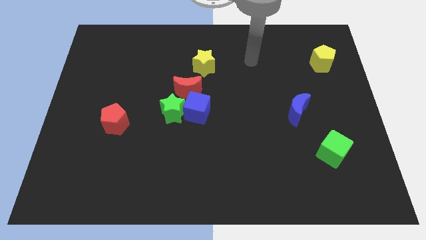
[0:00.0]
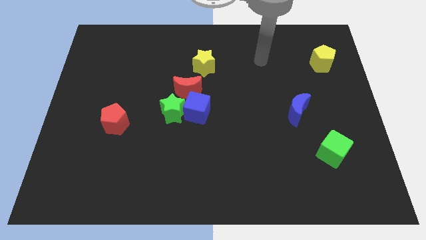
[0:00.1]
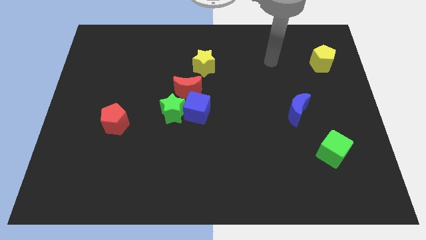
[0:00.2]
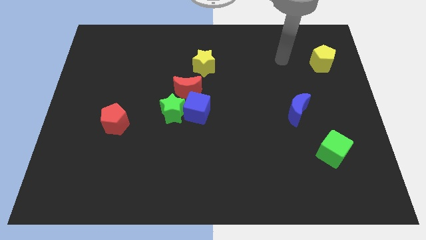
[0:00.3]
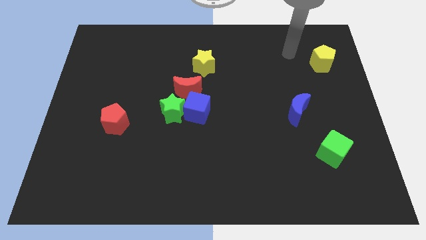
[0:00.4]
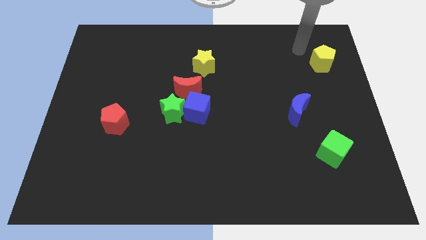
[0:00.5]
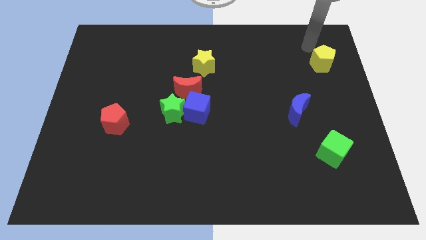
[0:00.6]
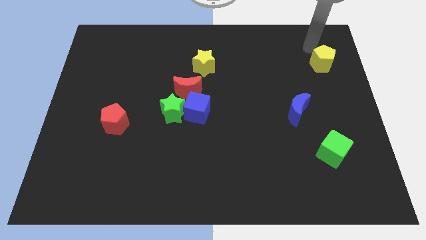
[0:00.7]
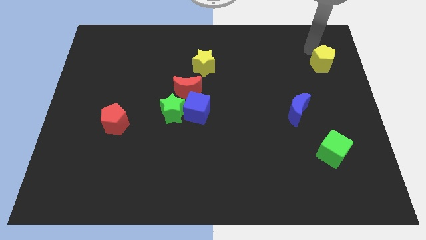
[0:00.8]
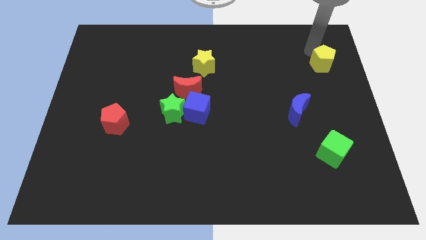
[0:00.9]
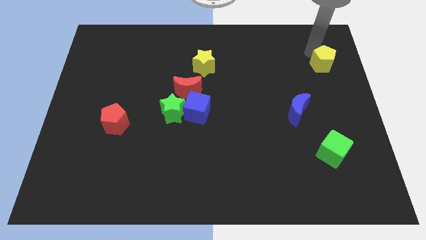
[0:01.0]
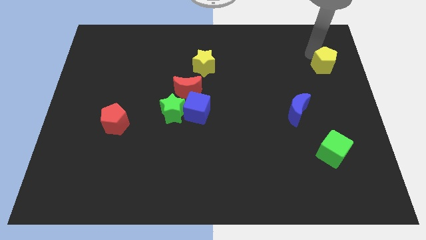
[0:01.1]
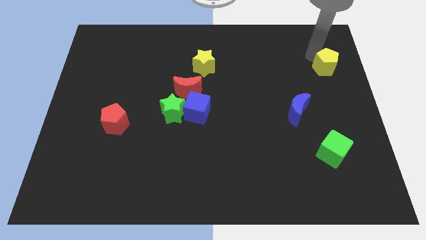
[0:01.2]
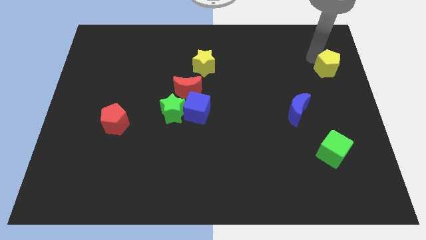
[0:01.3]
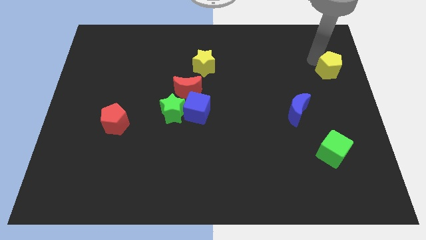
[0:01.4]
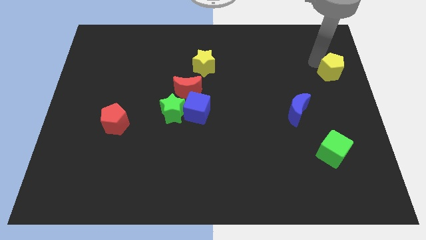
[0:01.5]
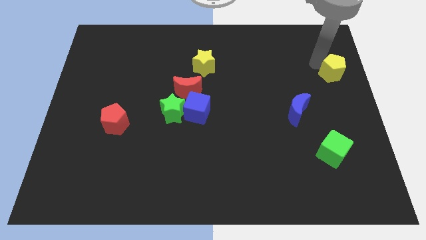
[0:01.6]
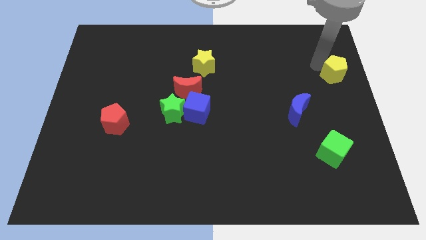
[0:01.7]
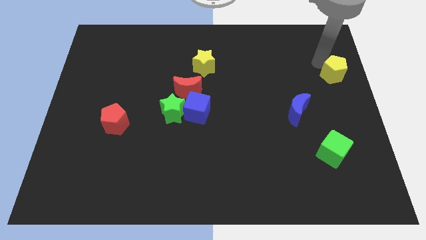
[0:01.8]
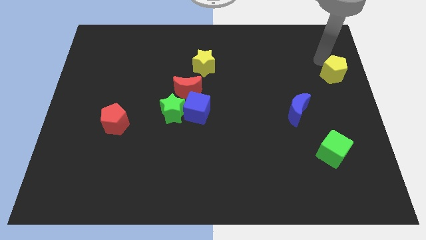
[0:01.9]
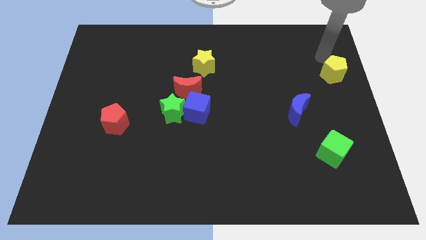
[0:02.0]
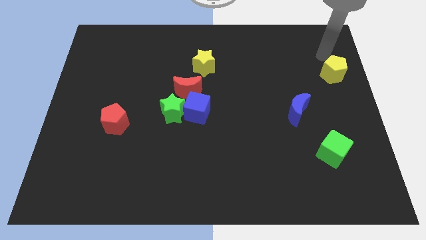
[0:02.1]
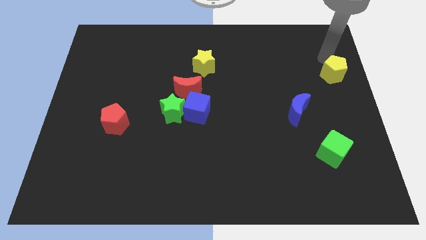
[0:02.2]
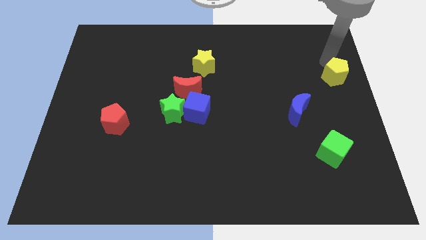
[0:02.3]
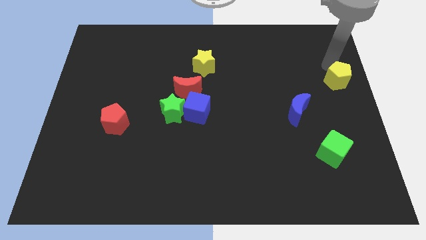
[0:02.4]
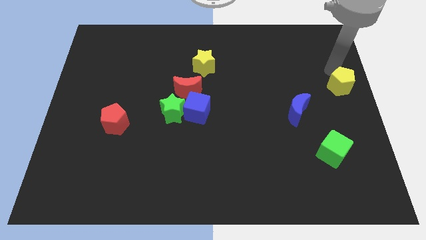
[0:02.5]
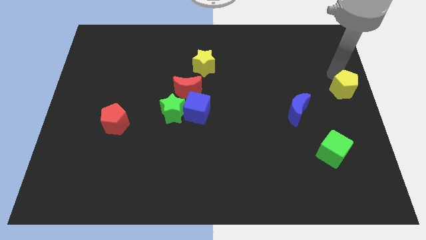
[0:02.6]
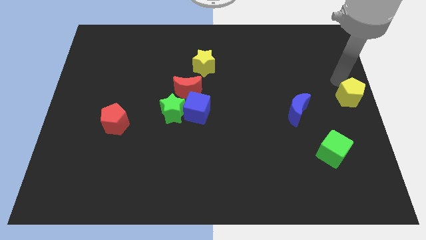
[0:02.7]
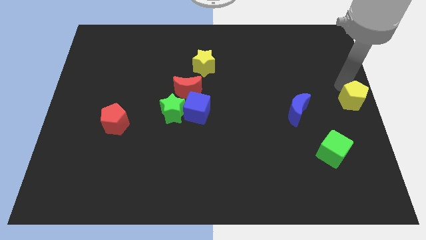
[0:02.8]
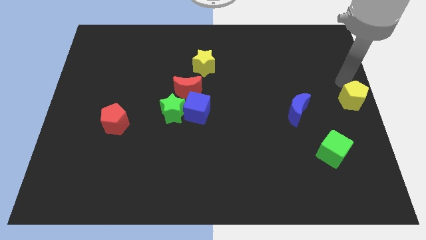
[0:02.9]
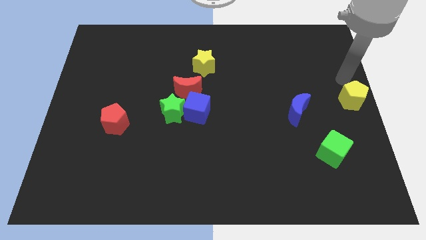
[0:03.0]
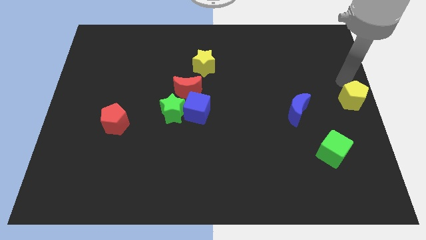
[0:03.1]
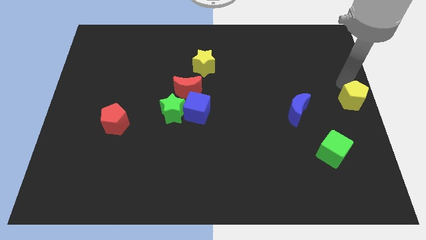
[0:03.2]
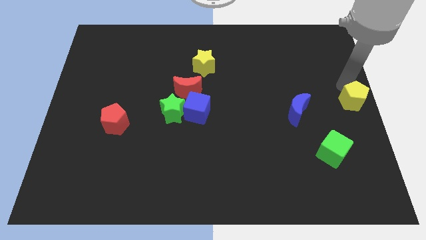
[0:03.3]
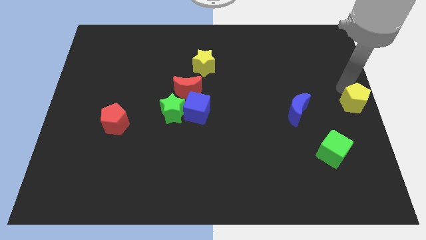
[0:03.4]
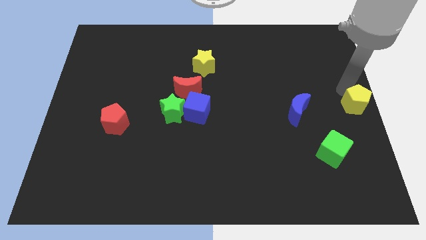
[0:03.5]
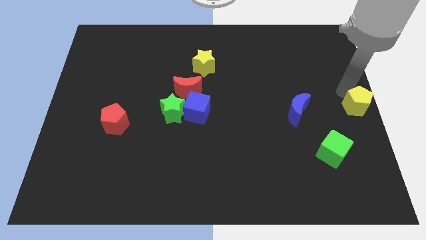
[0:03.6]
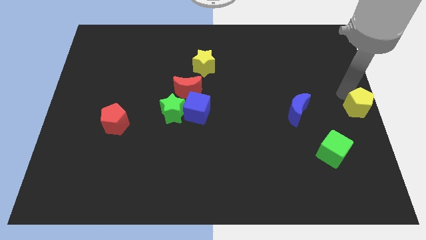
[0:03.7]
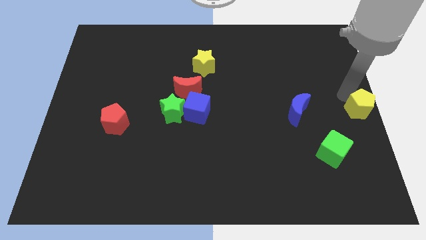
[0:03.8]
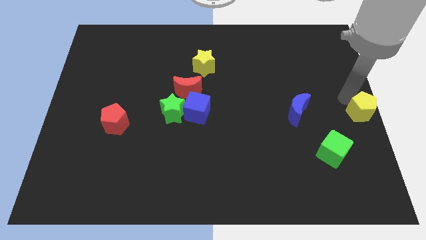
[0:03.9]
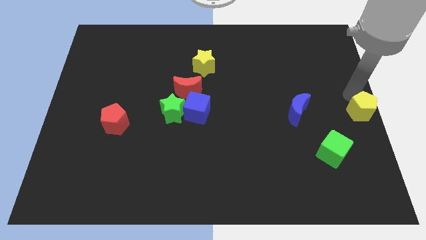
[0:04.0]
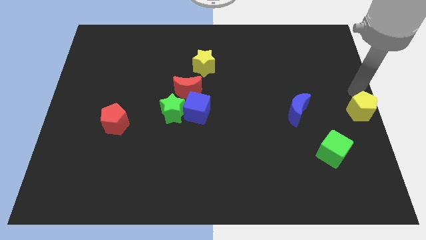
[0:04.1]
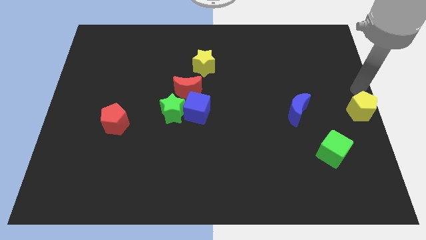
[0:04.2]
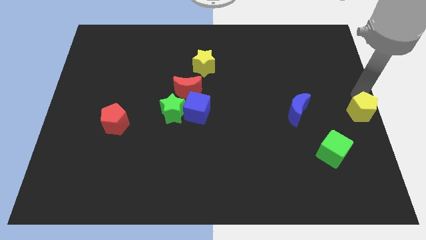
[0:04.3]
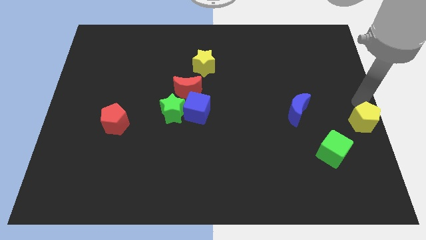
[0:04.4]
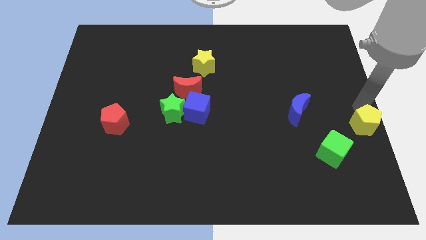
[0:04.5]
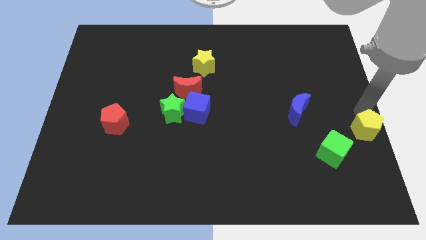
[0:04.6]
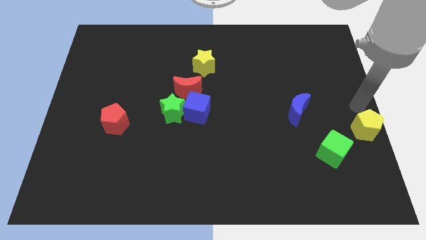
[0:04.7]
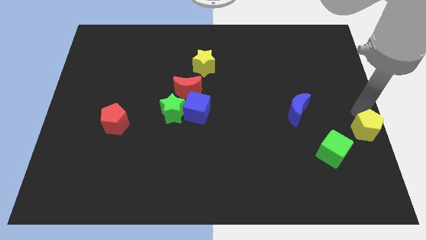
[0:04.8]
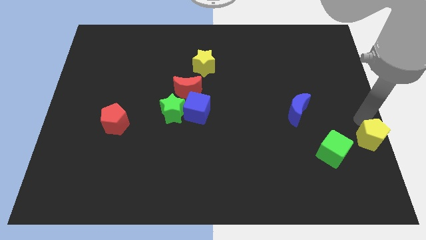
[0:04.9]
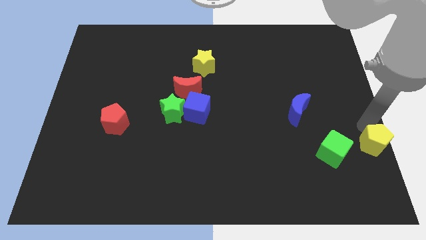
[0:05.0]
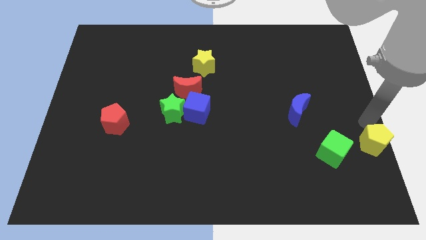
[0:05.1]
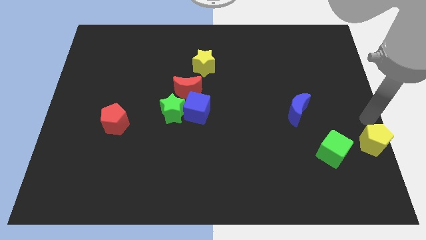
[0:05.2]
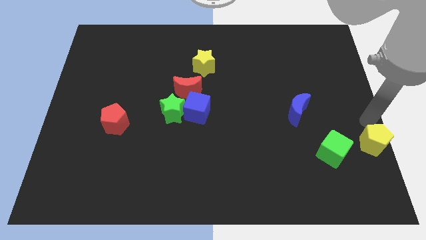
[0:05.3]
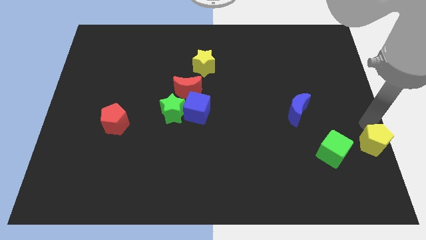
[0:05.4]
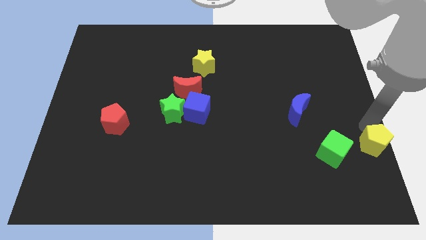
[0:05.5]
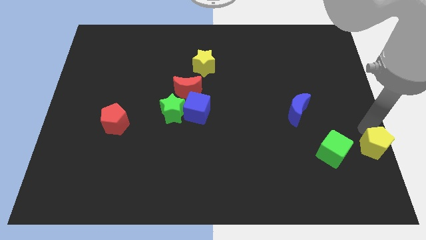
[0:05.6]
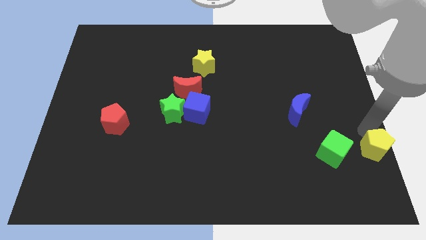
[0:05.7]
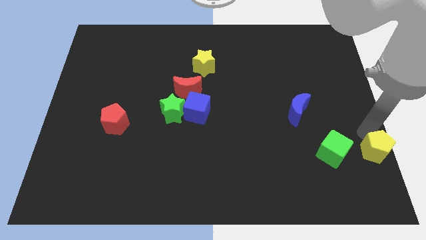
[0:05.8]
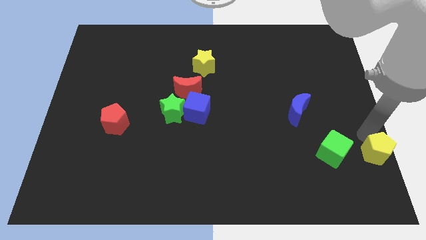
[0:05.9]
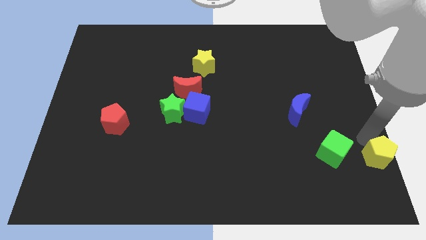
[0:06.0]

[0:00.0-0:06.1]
slide the yellow pentagon to the bottom right of the board
